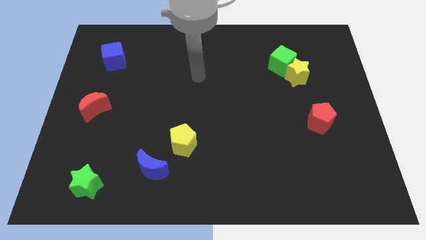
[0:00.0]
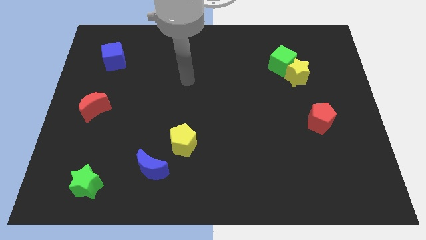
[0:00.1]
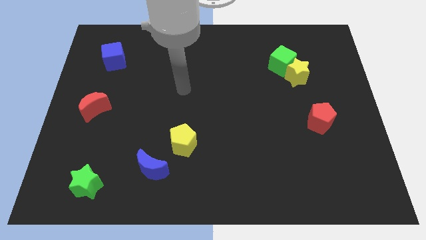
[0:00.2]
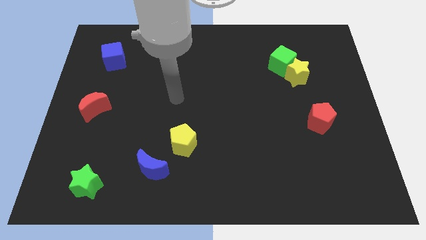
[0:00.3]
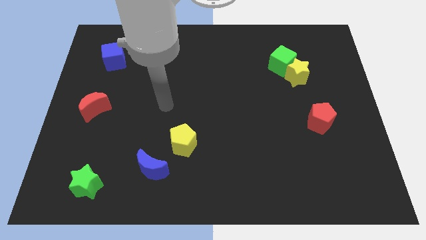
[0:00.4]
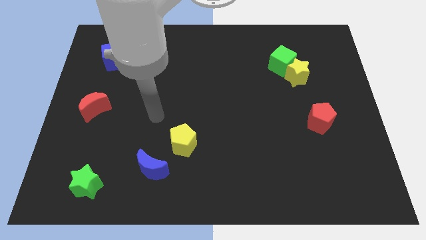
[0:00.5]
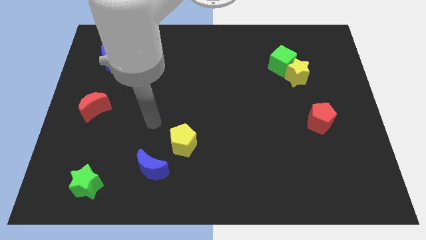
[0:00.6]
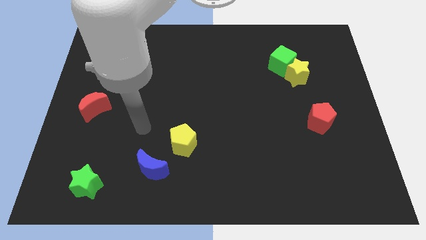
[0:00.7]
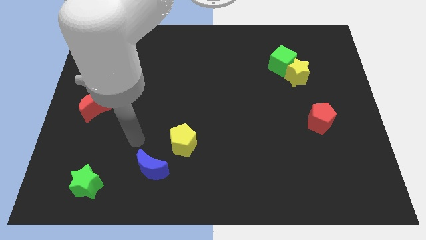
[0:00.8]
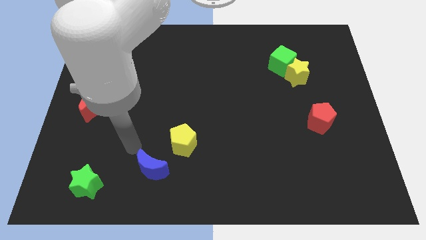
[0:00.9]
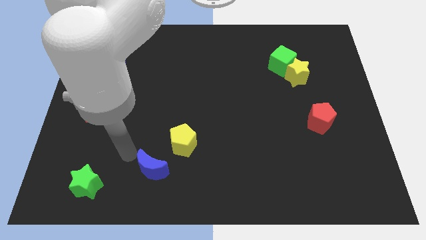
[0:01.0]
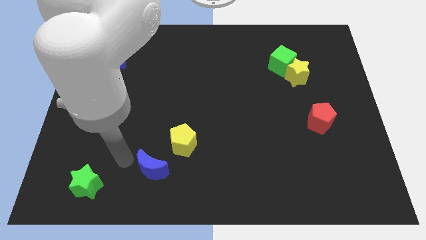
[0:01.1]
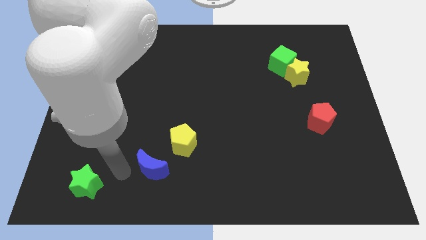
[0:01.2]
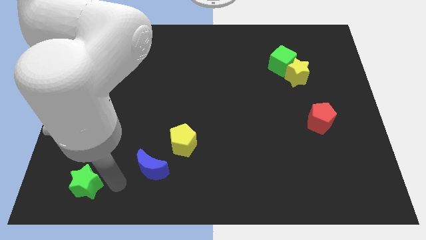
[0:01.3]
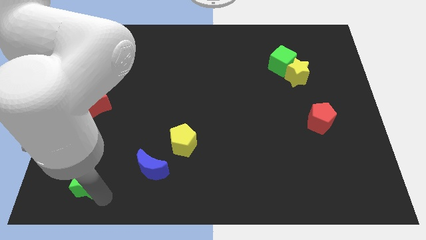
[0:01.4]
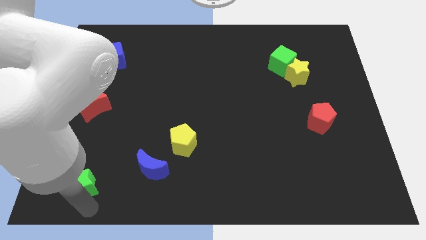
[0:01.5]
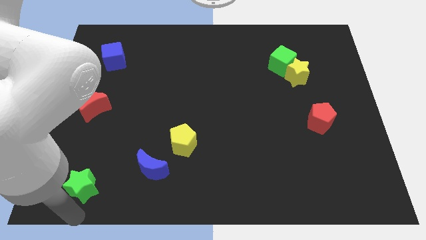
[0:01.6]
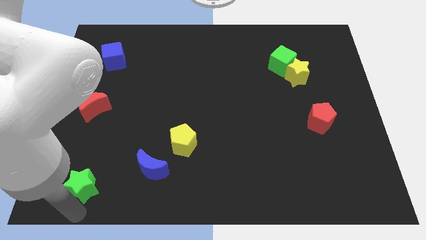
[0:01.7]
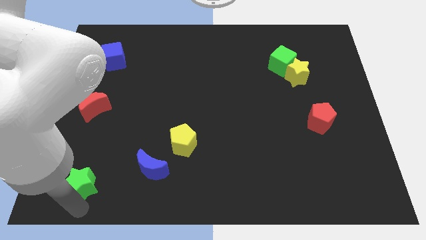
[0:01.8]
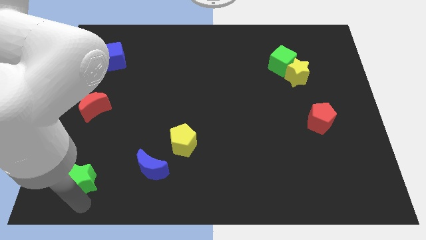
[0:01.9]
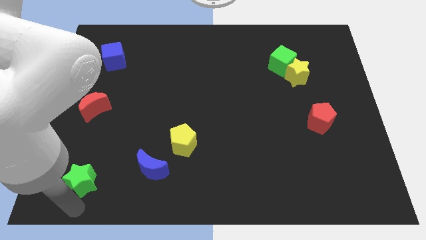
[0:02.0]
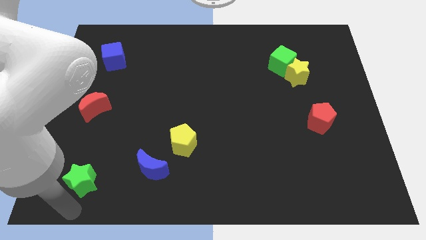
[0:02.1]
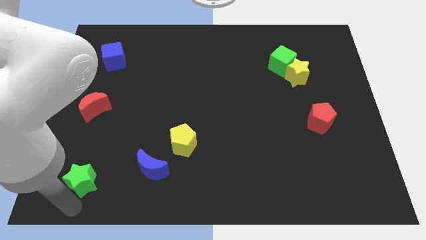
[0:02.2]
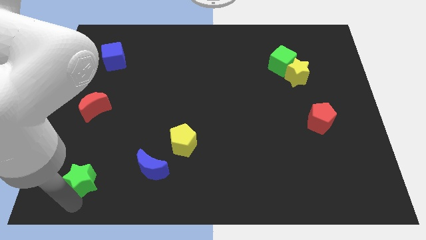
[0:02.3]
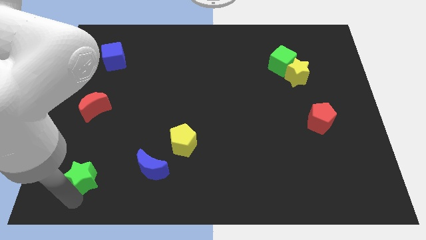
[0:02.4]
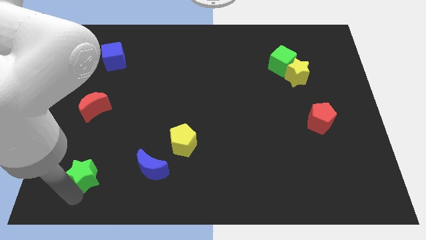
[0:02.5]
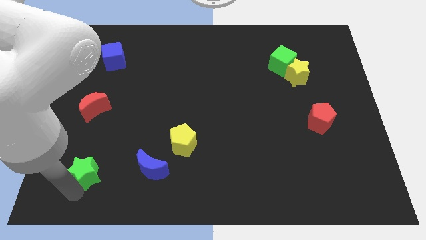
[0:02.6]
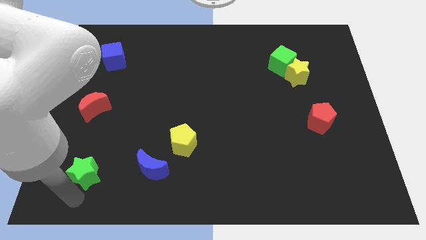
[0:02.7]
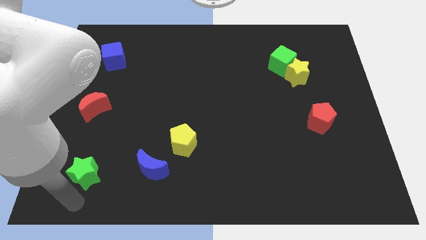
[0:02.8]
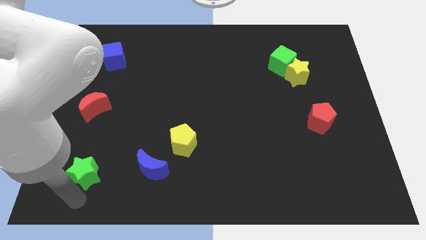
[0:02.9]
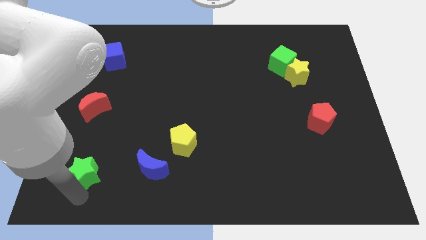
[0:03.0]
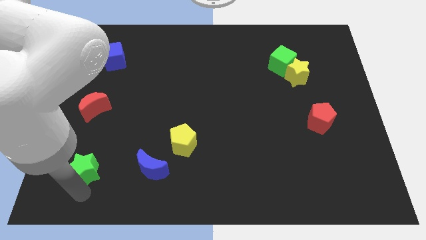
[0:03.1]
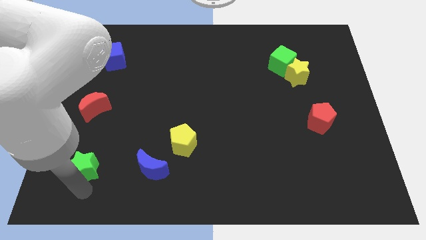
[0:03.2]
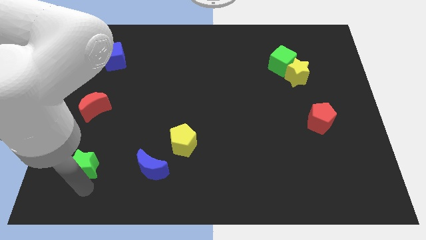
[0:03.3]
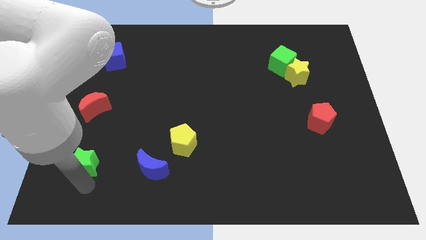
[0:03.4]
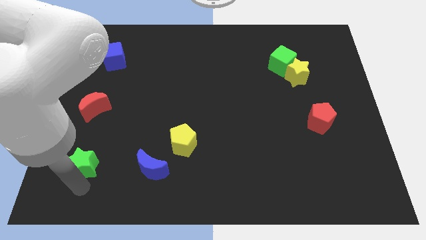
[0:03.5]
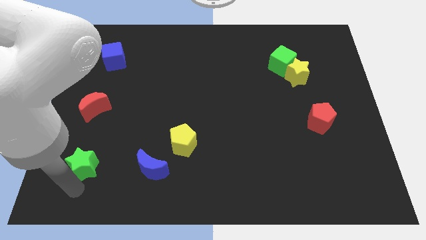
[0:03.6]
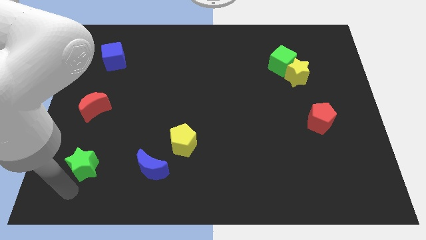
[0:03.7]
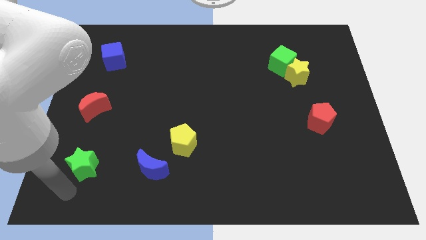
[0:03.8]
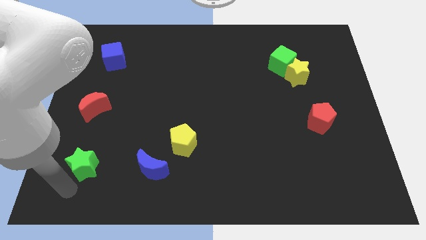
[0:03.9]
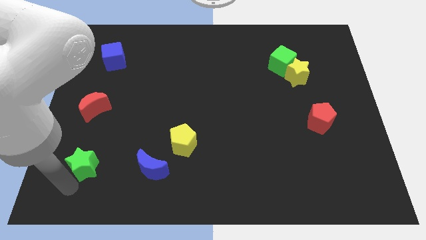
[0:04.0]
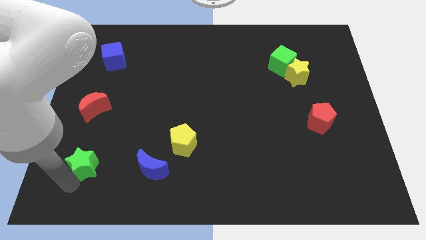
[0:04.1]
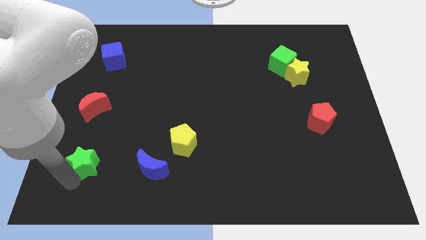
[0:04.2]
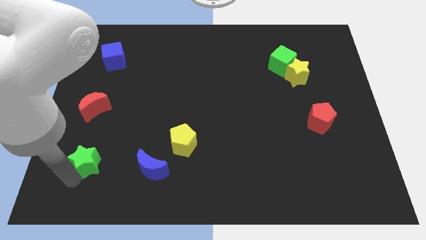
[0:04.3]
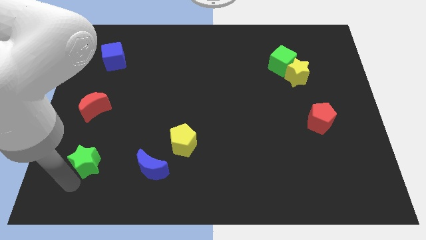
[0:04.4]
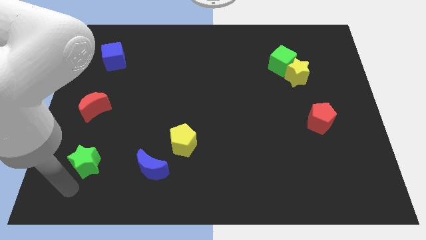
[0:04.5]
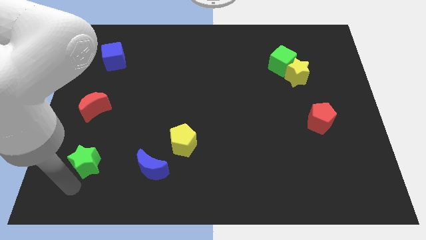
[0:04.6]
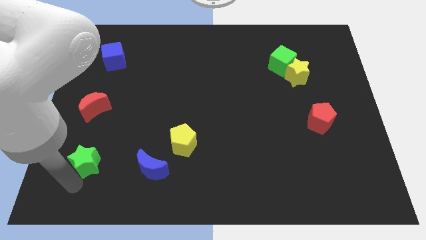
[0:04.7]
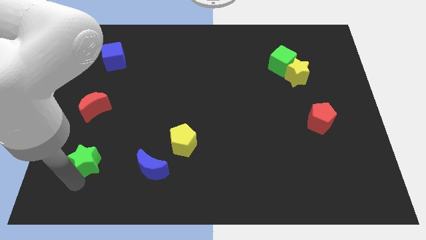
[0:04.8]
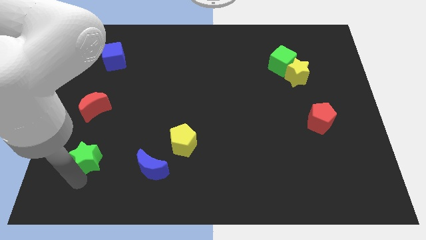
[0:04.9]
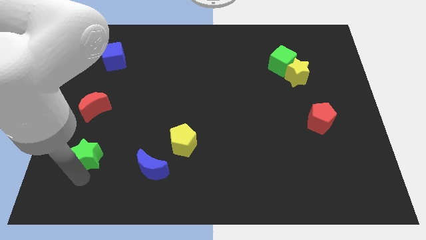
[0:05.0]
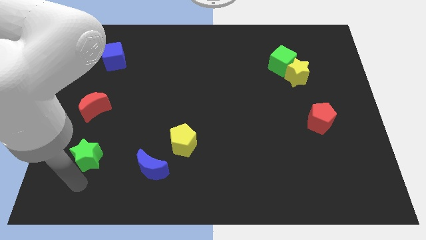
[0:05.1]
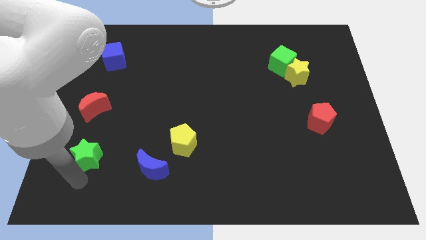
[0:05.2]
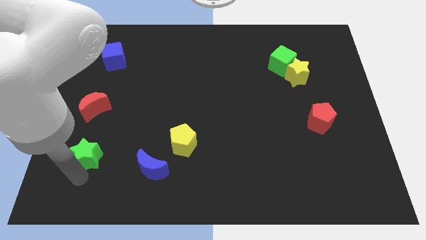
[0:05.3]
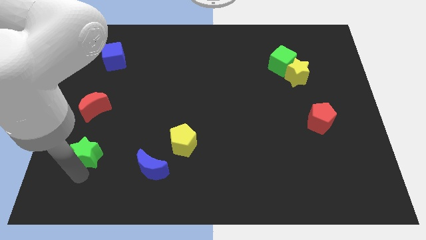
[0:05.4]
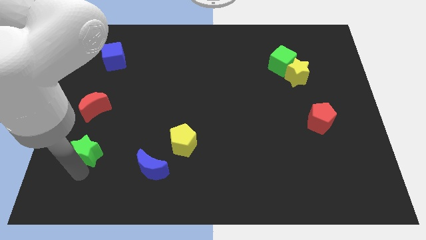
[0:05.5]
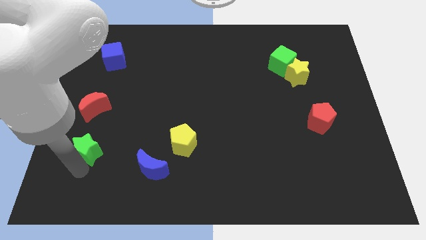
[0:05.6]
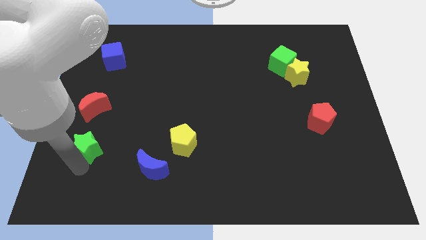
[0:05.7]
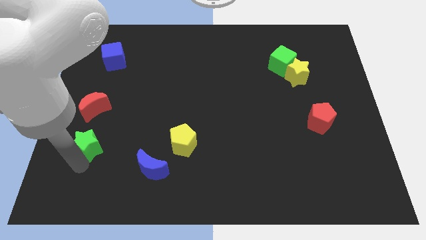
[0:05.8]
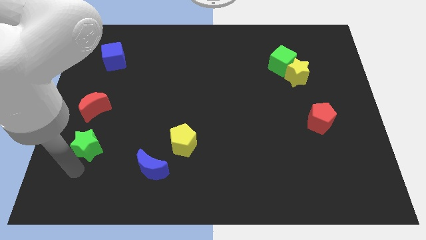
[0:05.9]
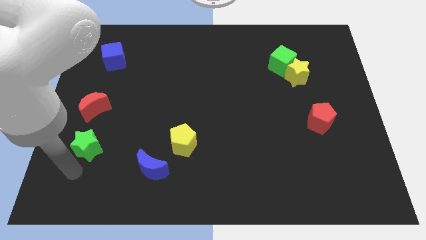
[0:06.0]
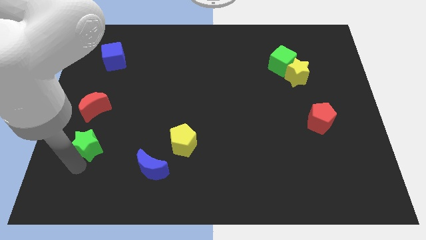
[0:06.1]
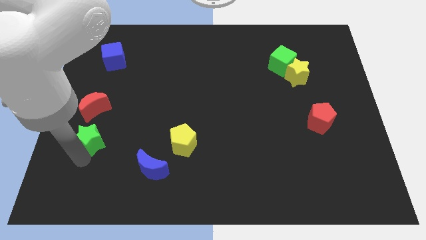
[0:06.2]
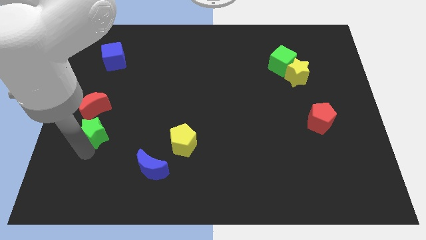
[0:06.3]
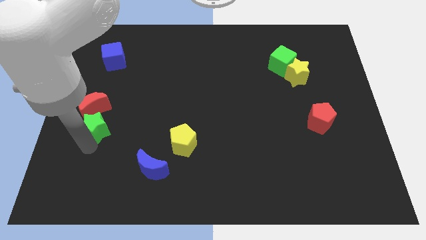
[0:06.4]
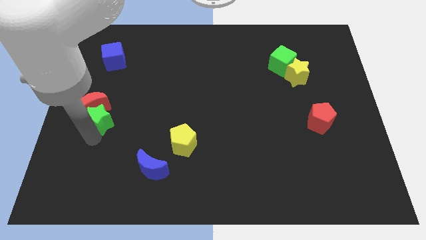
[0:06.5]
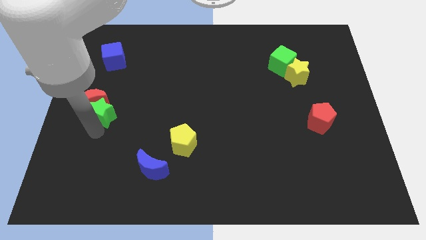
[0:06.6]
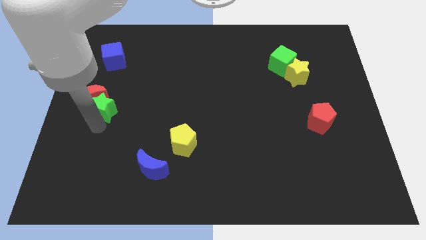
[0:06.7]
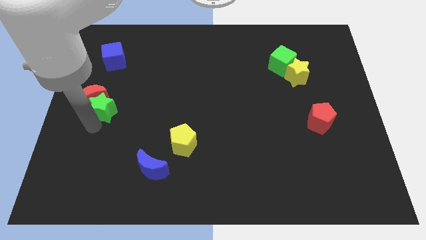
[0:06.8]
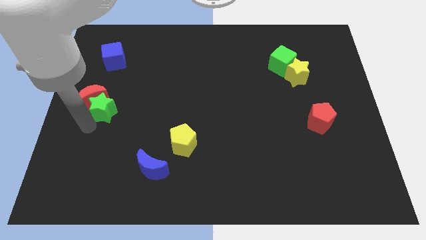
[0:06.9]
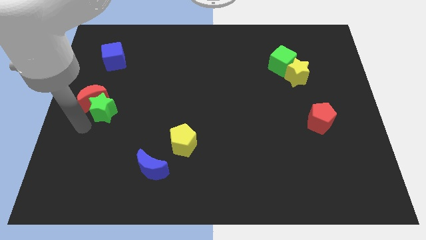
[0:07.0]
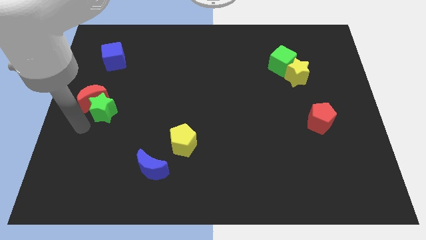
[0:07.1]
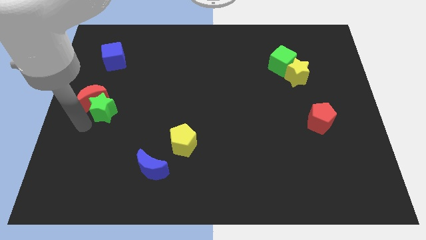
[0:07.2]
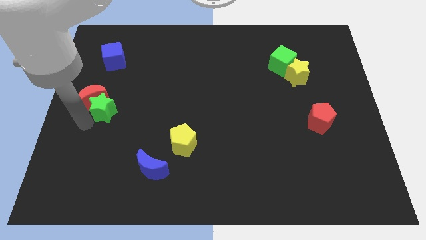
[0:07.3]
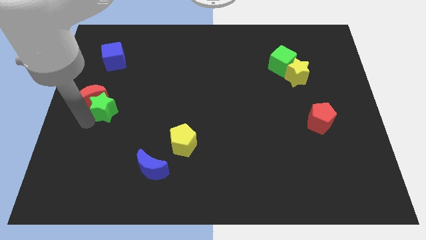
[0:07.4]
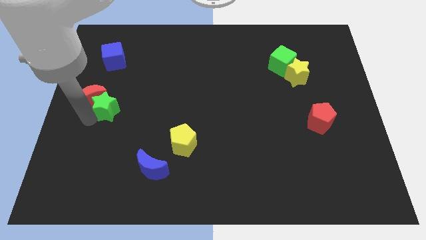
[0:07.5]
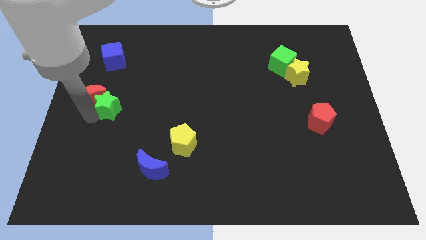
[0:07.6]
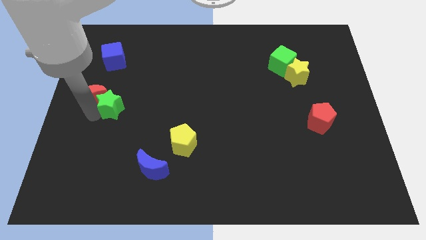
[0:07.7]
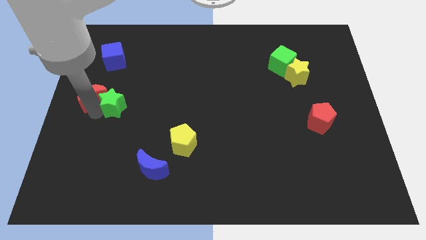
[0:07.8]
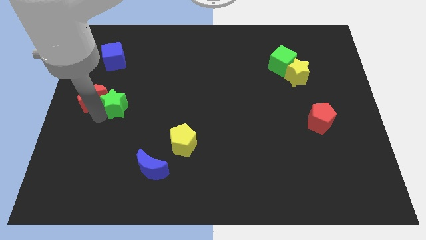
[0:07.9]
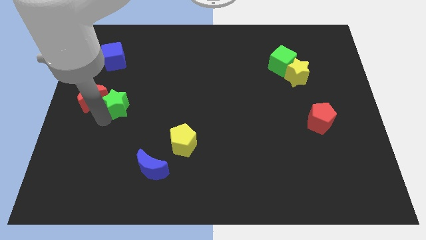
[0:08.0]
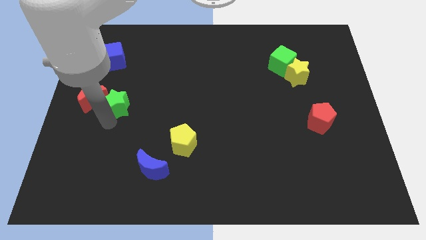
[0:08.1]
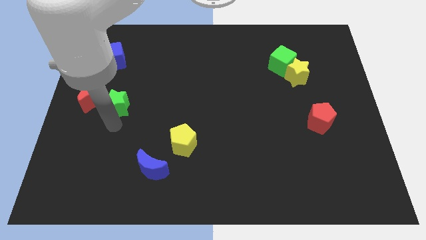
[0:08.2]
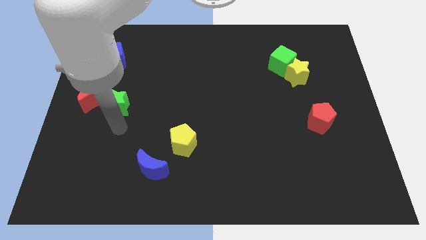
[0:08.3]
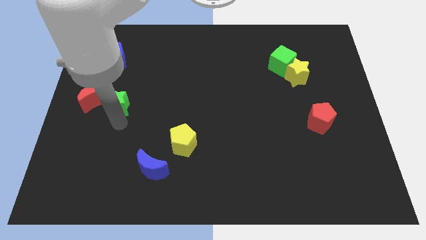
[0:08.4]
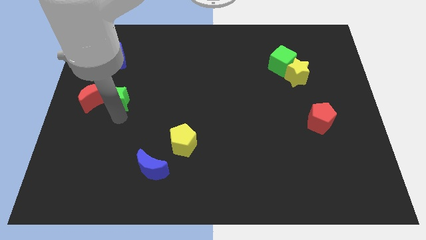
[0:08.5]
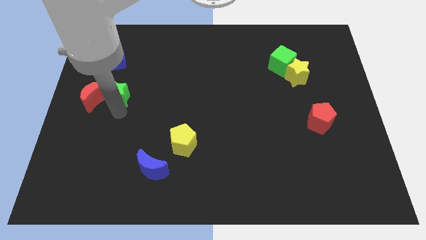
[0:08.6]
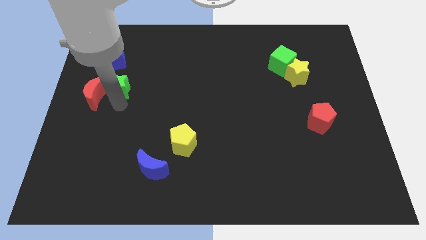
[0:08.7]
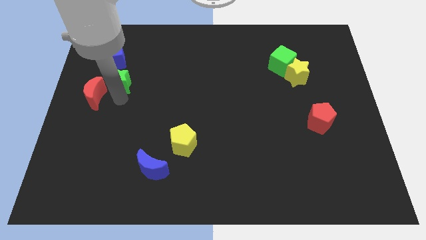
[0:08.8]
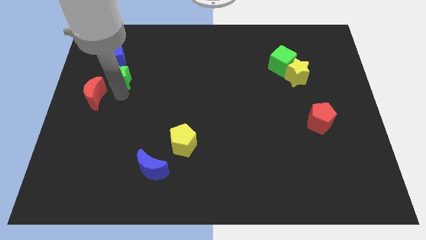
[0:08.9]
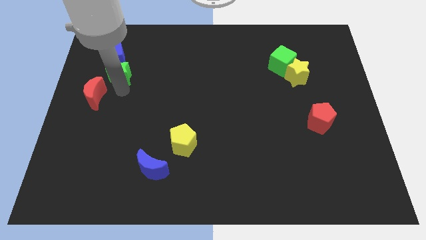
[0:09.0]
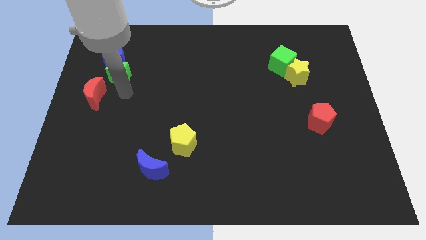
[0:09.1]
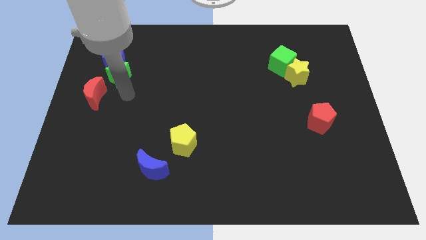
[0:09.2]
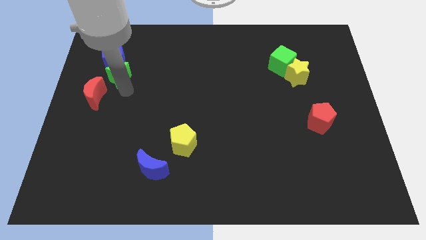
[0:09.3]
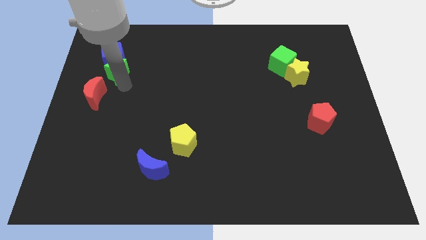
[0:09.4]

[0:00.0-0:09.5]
move the green star towards the blue cube
